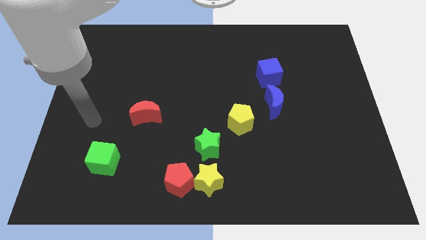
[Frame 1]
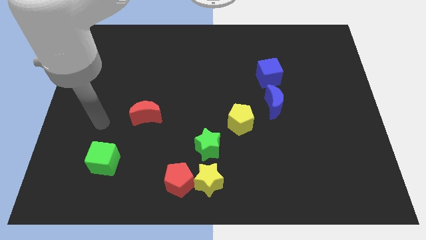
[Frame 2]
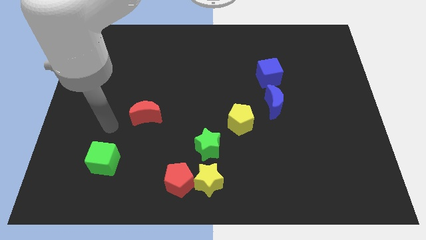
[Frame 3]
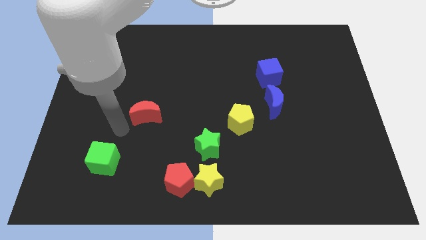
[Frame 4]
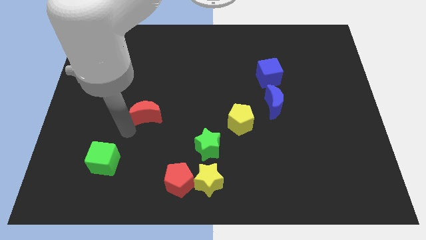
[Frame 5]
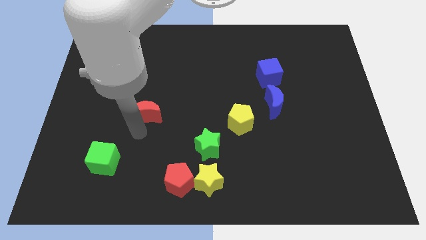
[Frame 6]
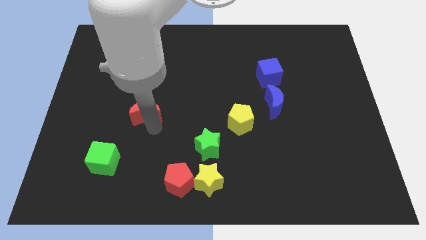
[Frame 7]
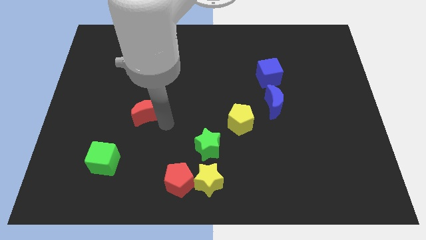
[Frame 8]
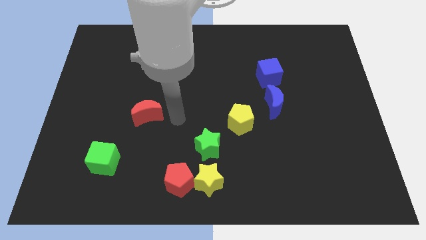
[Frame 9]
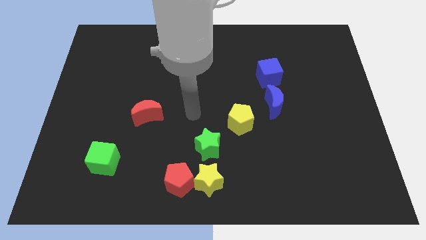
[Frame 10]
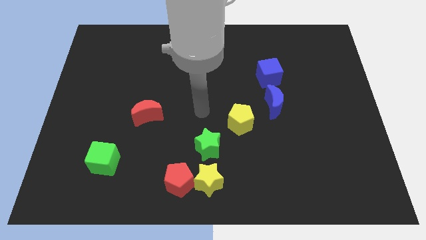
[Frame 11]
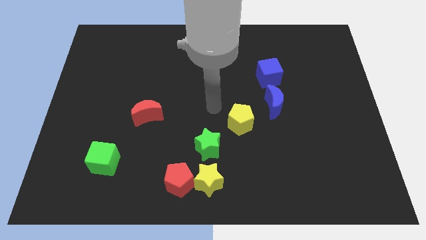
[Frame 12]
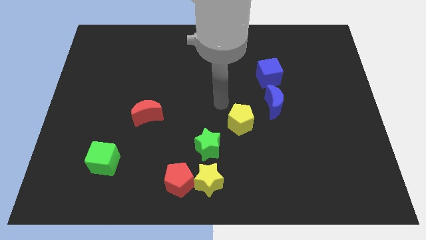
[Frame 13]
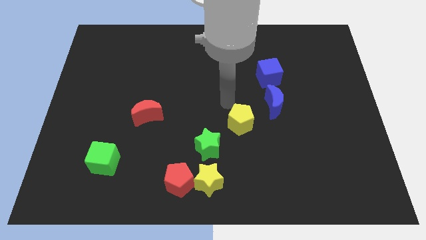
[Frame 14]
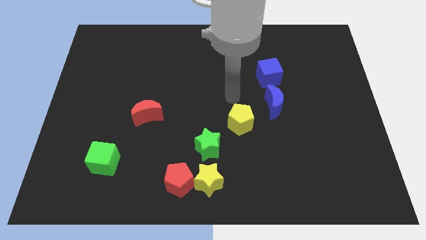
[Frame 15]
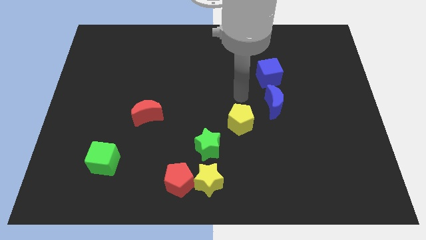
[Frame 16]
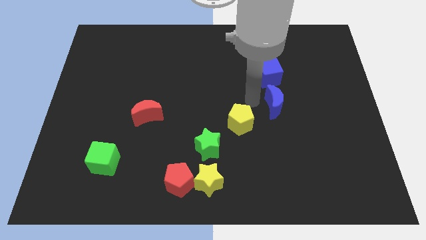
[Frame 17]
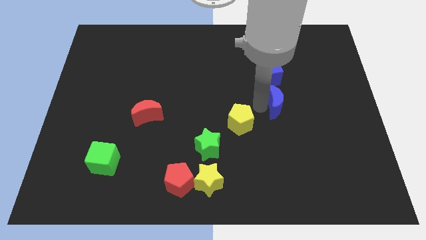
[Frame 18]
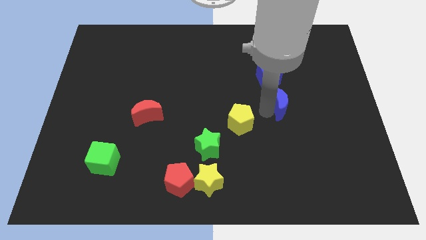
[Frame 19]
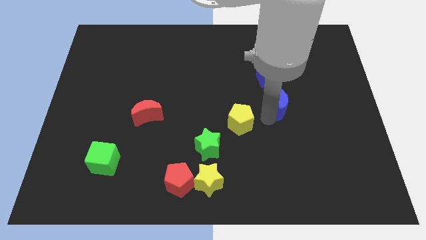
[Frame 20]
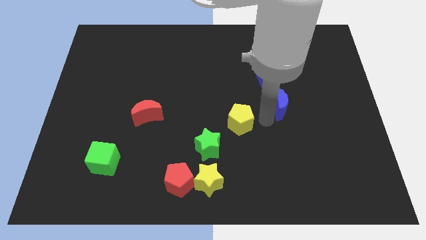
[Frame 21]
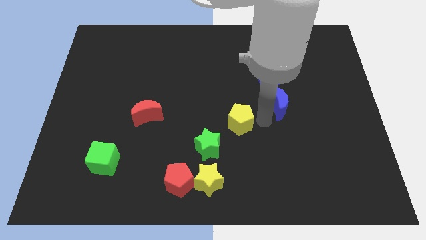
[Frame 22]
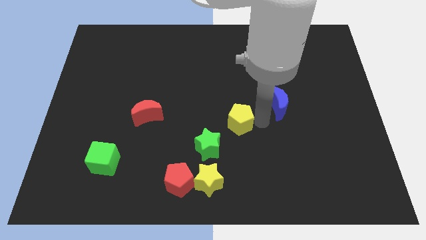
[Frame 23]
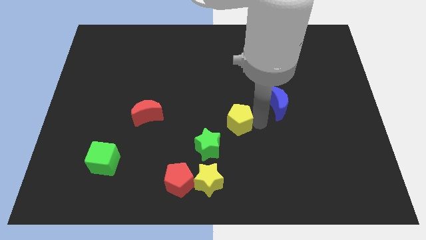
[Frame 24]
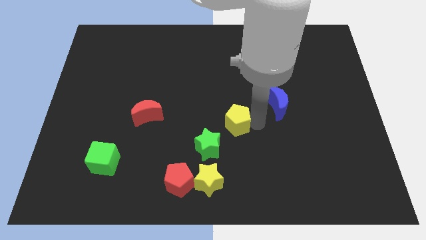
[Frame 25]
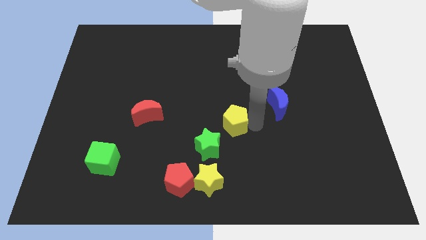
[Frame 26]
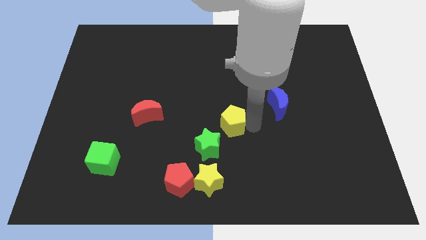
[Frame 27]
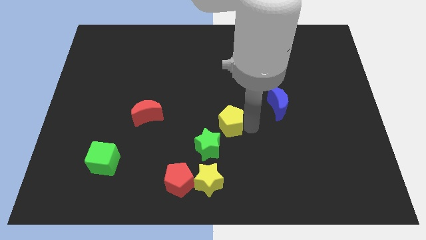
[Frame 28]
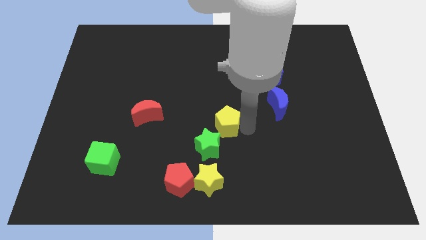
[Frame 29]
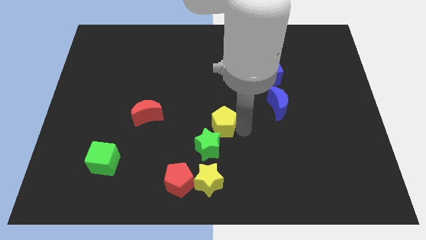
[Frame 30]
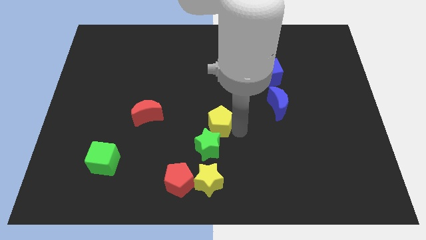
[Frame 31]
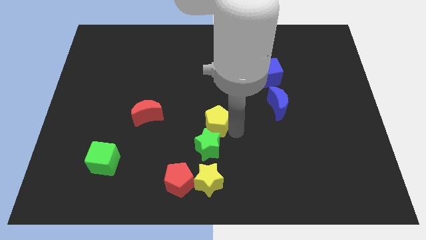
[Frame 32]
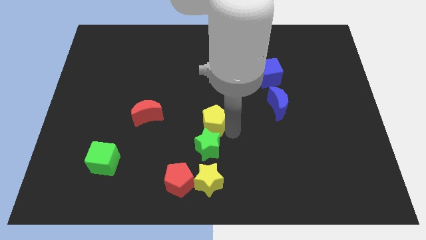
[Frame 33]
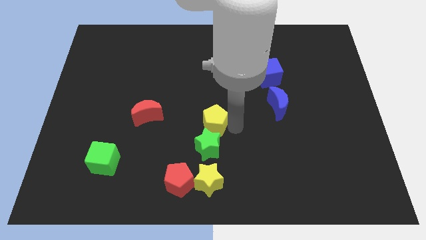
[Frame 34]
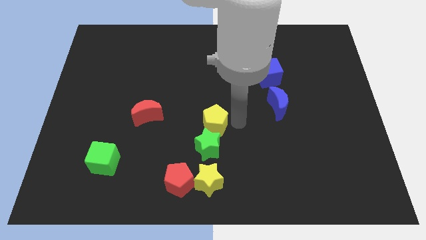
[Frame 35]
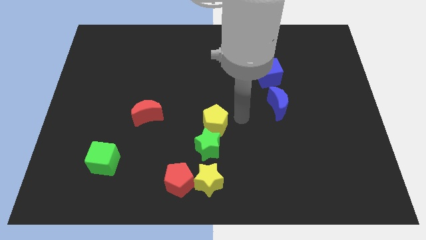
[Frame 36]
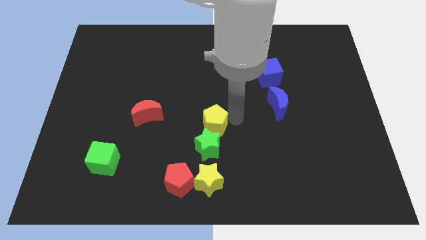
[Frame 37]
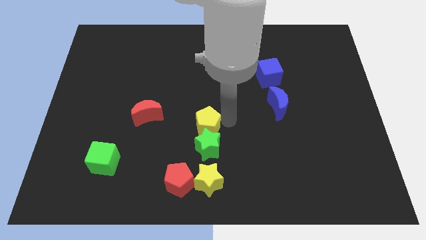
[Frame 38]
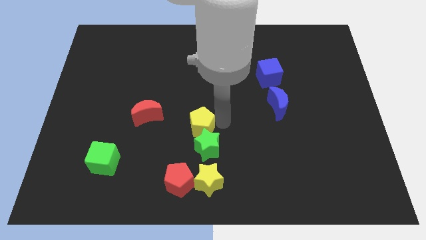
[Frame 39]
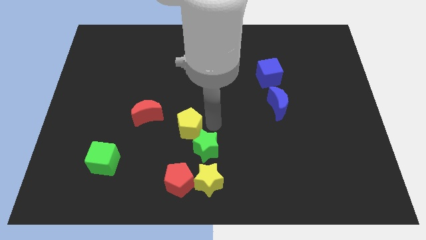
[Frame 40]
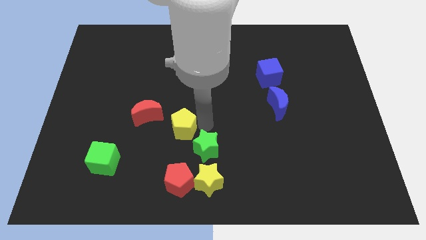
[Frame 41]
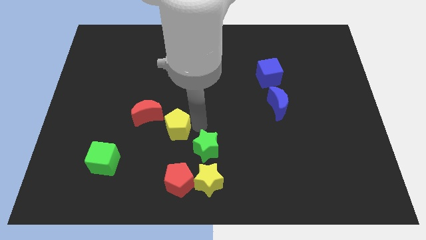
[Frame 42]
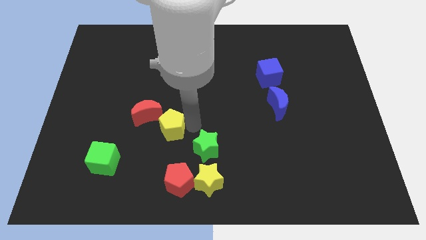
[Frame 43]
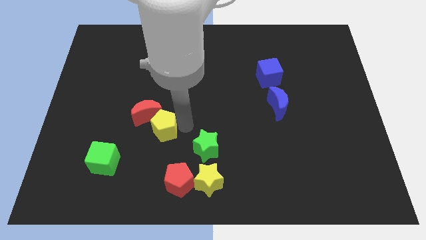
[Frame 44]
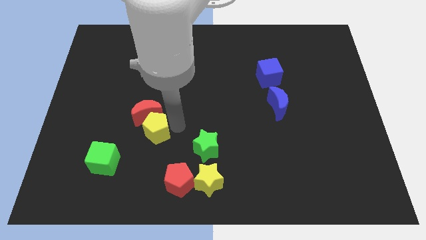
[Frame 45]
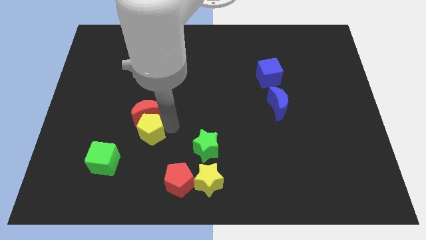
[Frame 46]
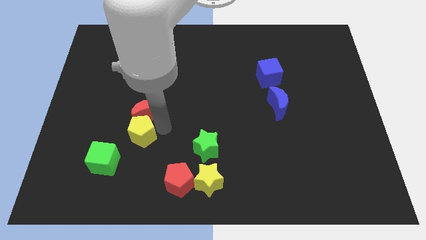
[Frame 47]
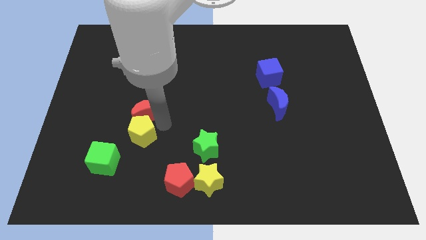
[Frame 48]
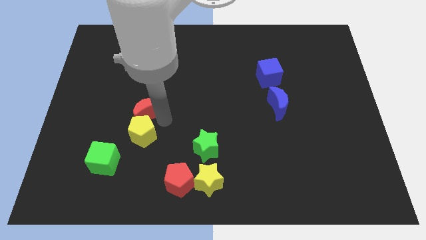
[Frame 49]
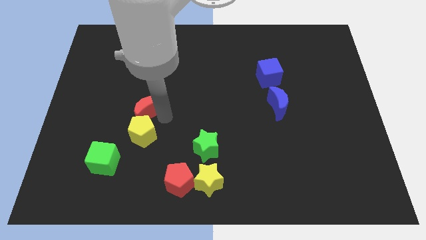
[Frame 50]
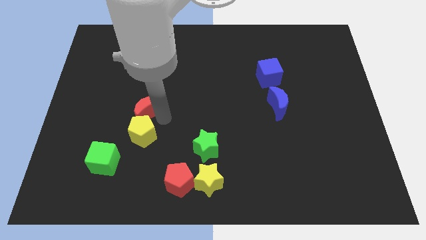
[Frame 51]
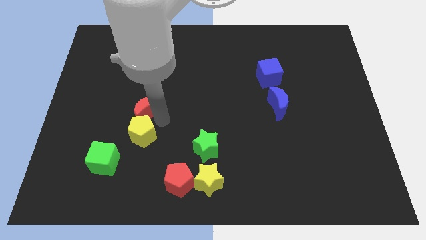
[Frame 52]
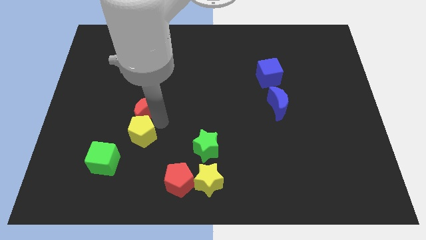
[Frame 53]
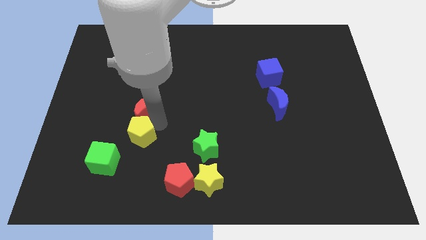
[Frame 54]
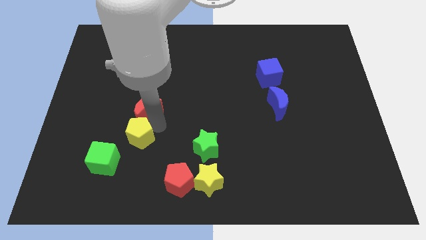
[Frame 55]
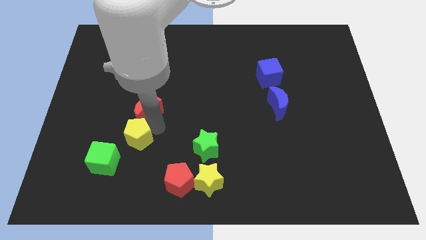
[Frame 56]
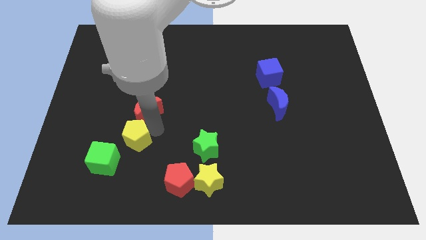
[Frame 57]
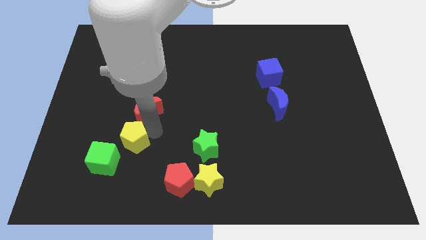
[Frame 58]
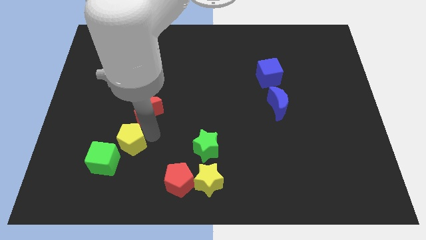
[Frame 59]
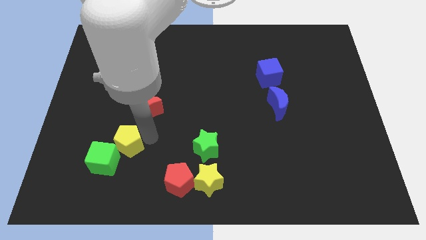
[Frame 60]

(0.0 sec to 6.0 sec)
slide the yellow pentagon close to the green cube

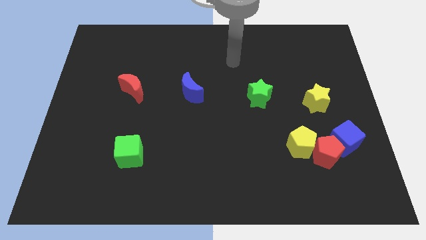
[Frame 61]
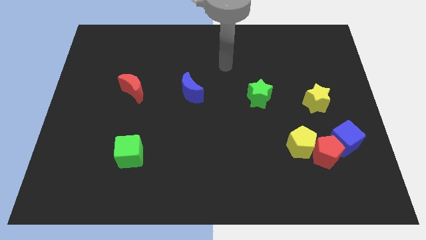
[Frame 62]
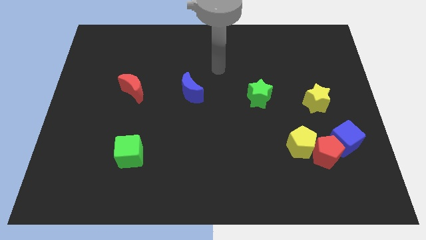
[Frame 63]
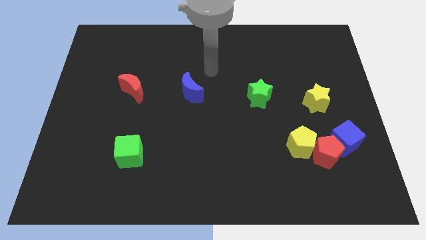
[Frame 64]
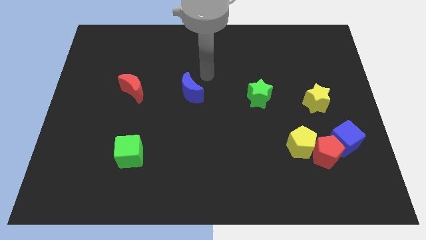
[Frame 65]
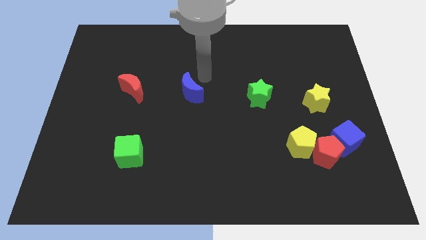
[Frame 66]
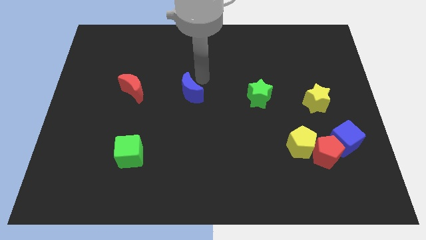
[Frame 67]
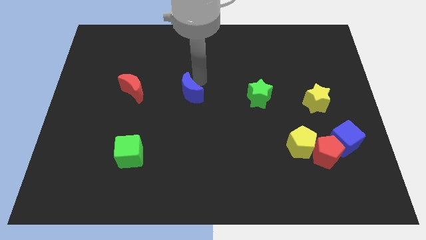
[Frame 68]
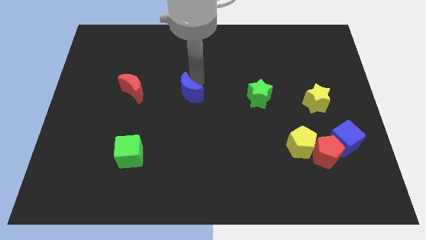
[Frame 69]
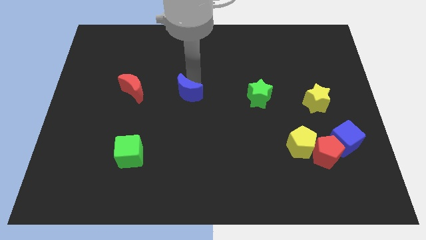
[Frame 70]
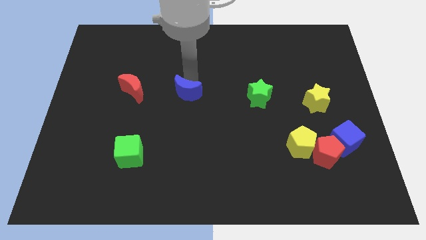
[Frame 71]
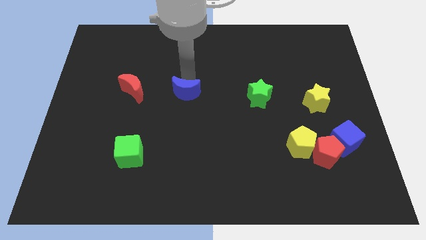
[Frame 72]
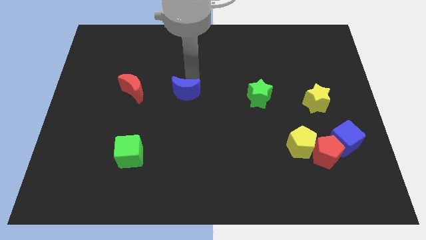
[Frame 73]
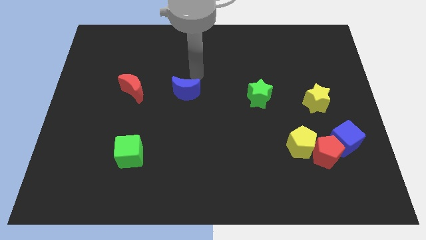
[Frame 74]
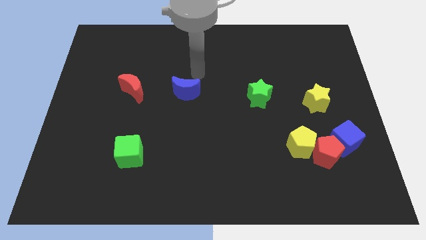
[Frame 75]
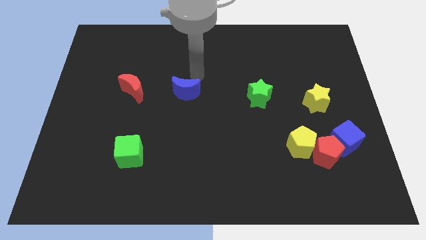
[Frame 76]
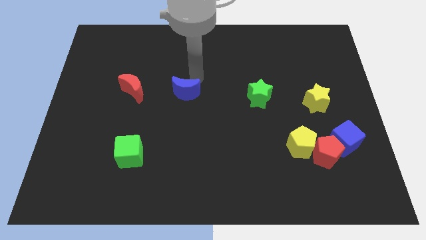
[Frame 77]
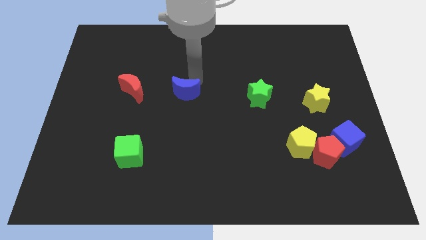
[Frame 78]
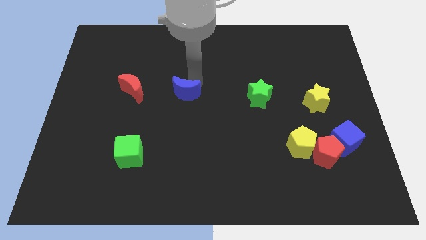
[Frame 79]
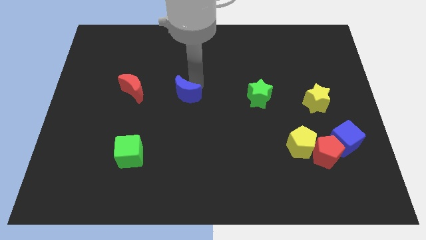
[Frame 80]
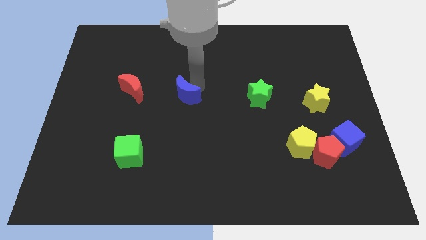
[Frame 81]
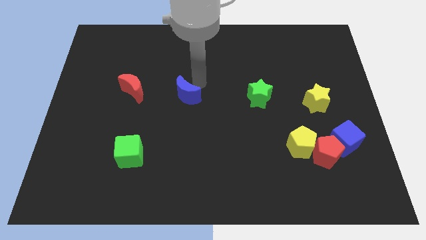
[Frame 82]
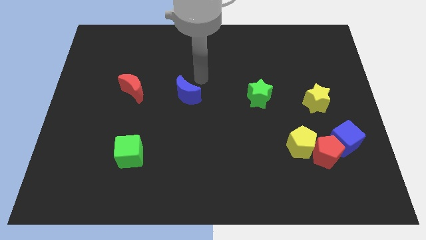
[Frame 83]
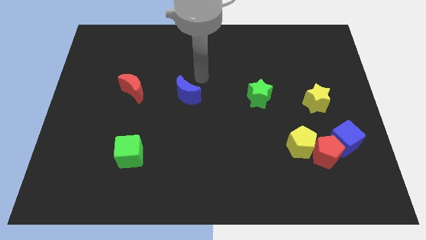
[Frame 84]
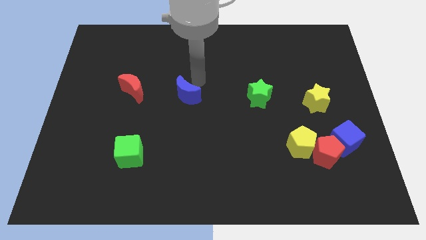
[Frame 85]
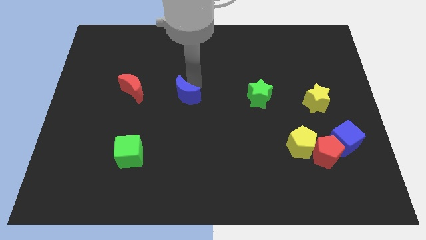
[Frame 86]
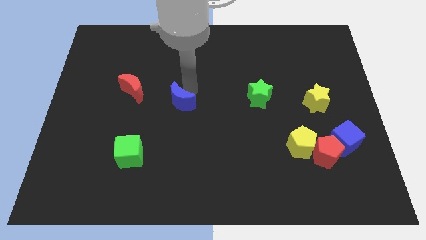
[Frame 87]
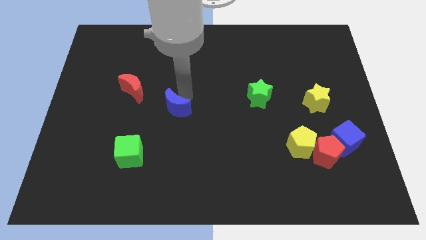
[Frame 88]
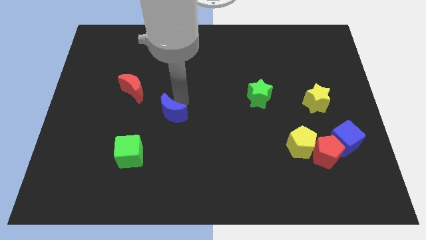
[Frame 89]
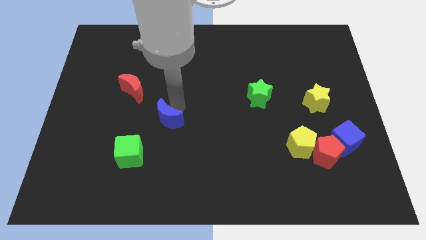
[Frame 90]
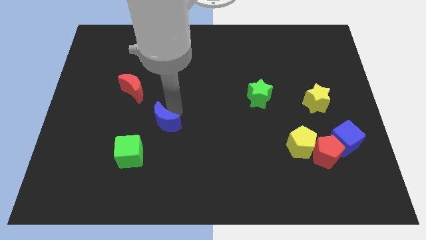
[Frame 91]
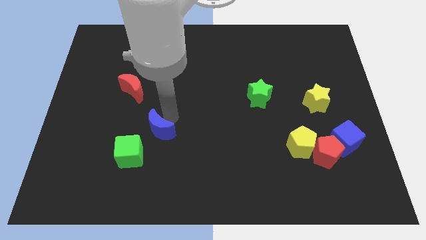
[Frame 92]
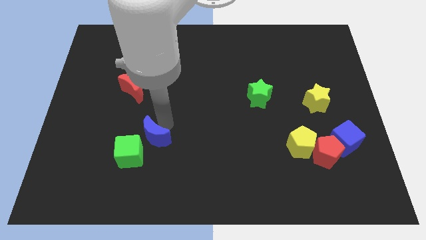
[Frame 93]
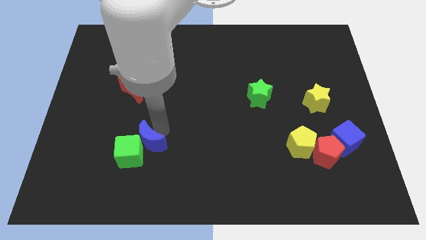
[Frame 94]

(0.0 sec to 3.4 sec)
slide the blue moon to the green cube
